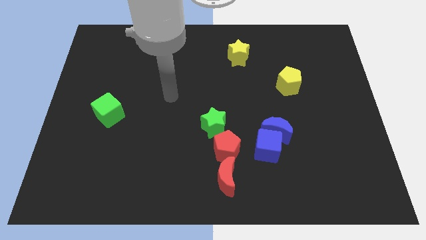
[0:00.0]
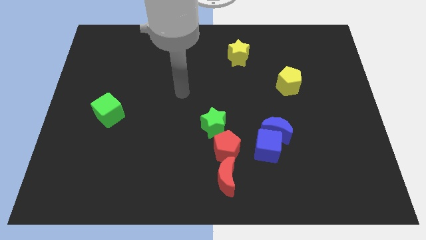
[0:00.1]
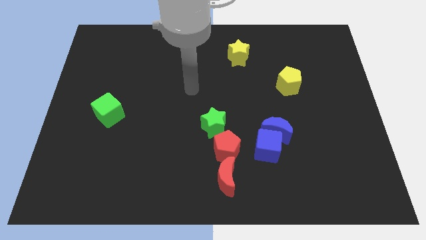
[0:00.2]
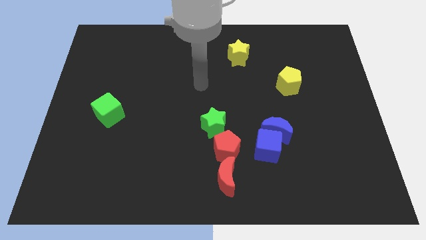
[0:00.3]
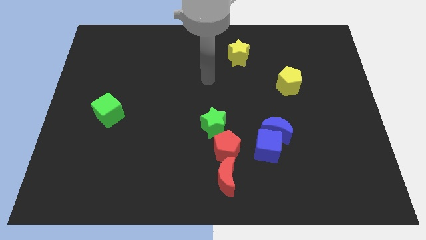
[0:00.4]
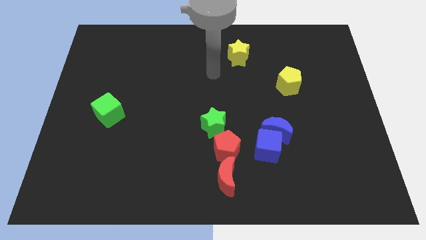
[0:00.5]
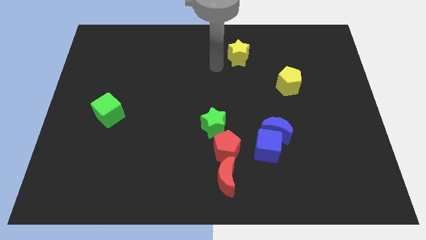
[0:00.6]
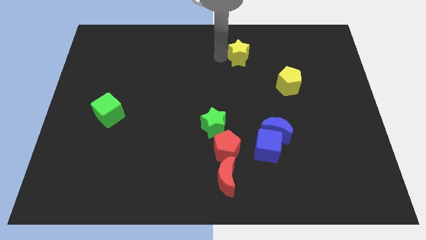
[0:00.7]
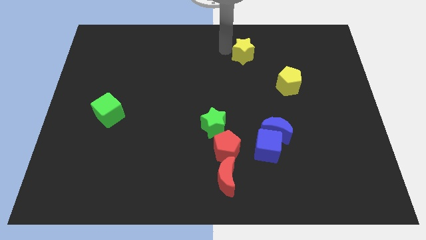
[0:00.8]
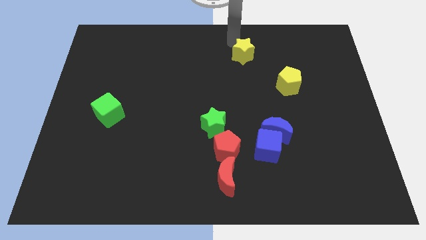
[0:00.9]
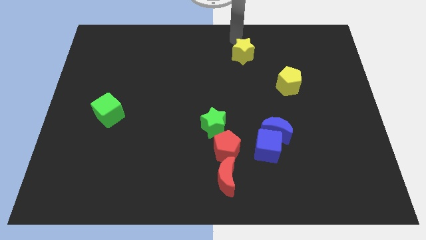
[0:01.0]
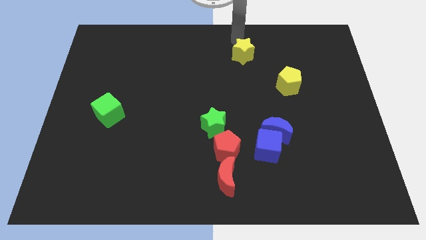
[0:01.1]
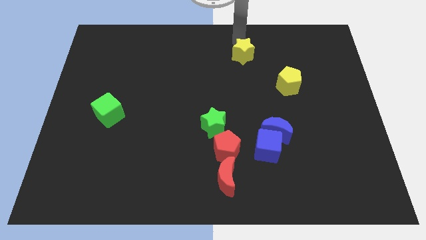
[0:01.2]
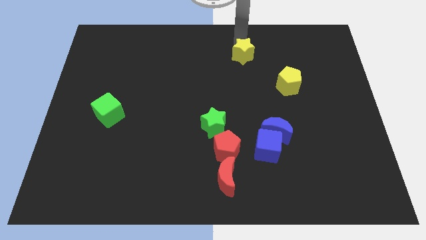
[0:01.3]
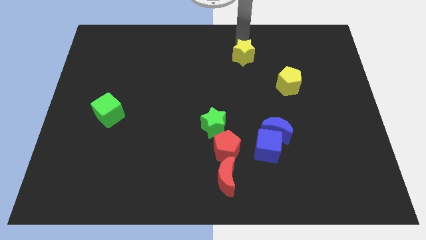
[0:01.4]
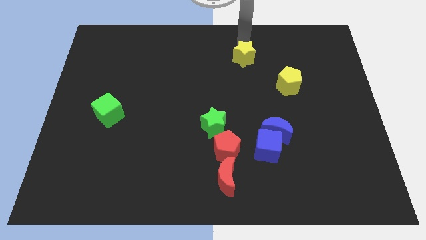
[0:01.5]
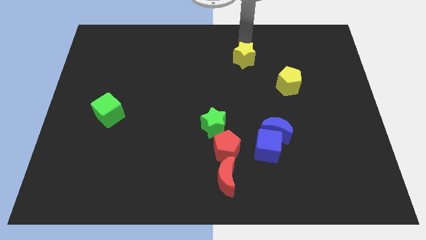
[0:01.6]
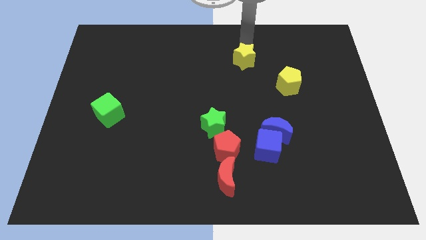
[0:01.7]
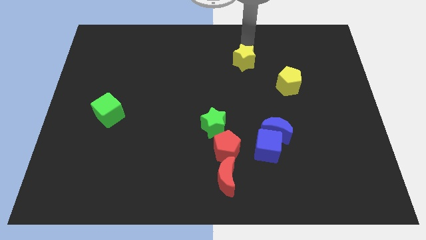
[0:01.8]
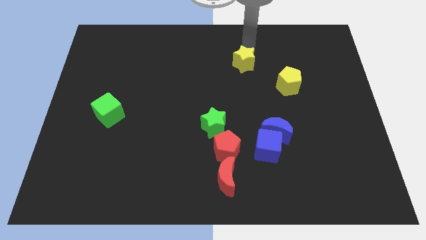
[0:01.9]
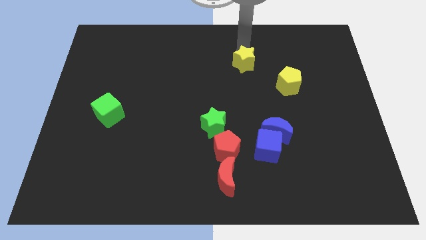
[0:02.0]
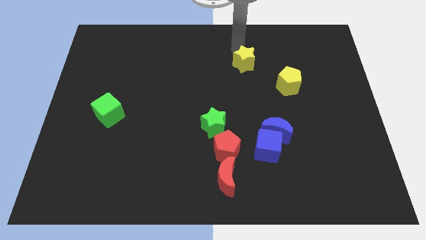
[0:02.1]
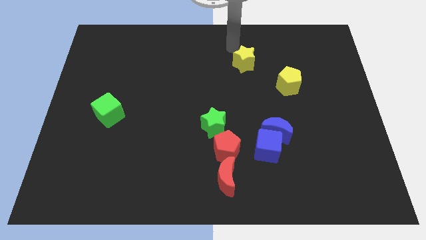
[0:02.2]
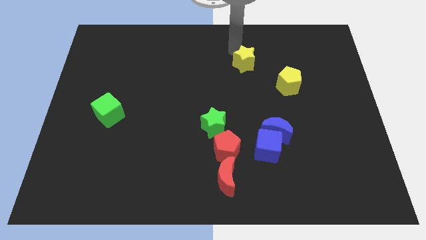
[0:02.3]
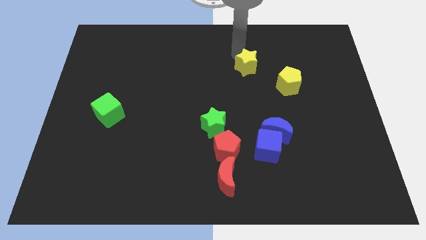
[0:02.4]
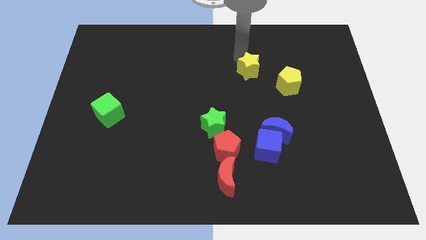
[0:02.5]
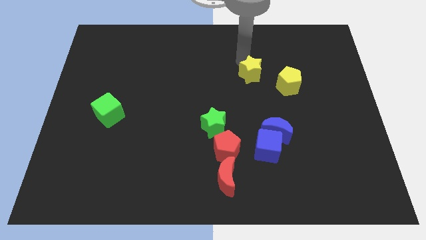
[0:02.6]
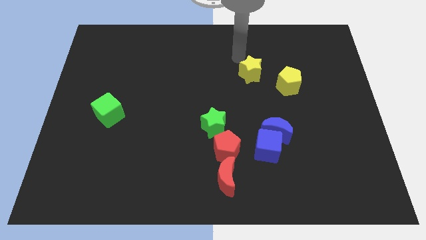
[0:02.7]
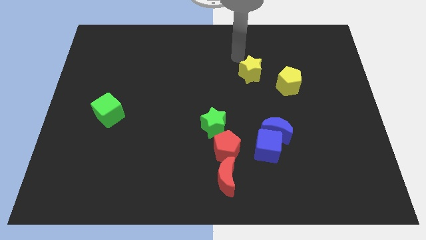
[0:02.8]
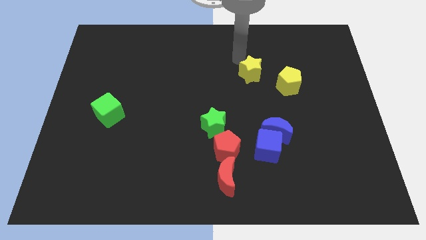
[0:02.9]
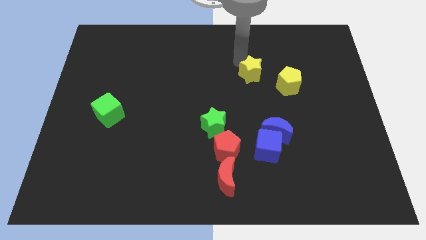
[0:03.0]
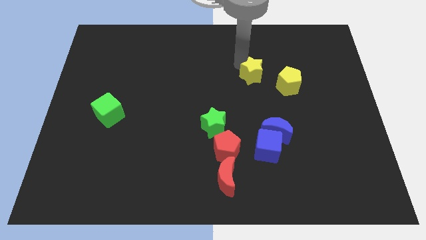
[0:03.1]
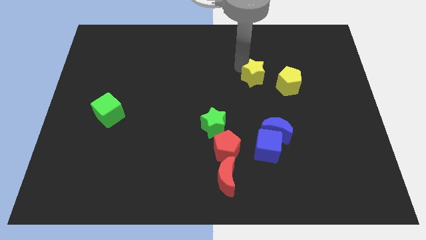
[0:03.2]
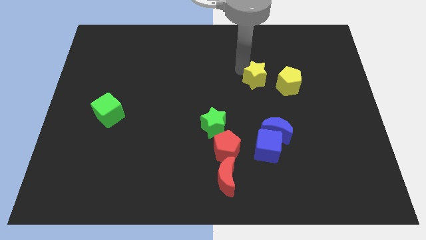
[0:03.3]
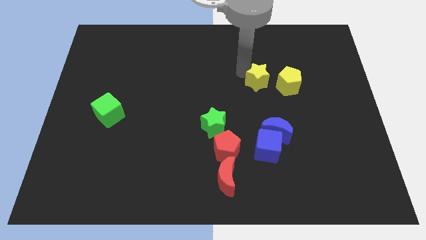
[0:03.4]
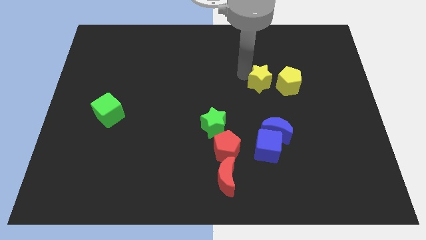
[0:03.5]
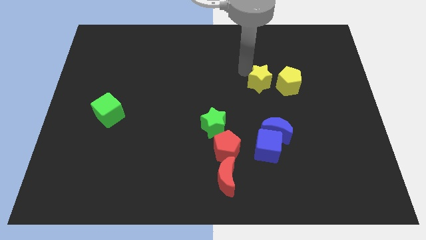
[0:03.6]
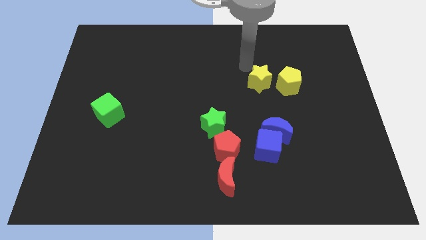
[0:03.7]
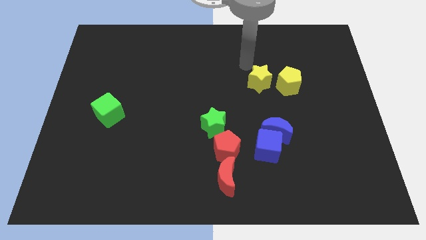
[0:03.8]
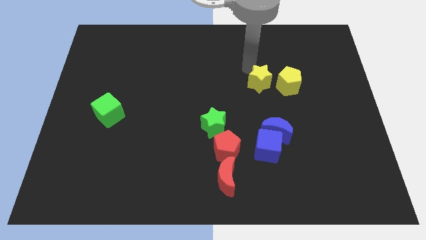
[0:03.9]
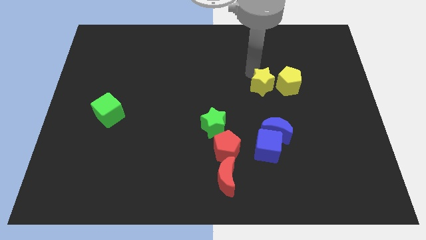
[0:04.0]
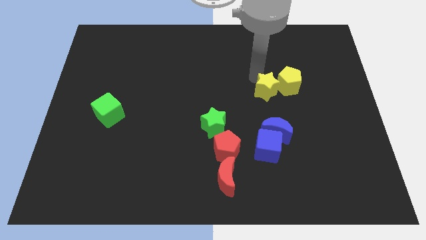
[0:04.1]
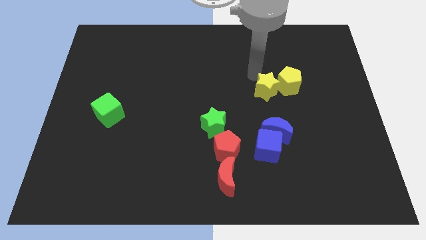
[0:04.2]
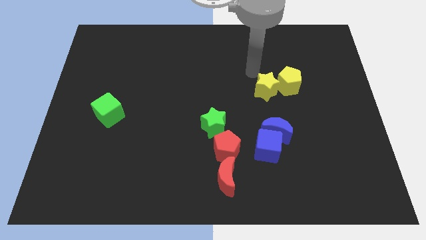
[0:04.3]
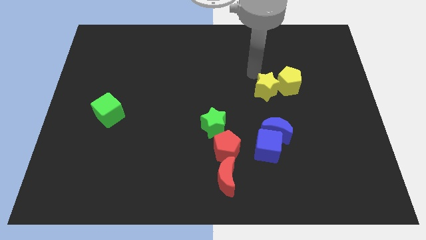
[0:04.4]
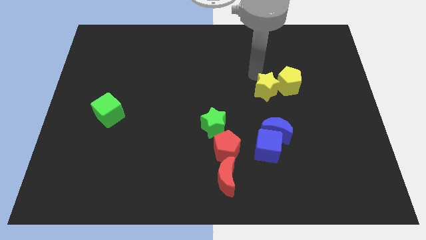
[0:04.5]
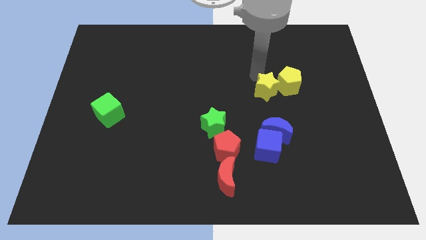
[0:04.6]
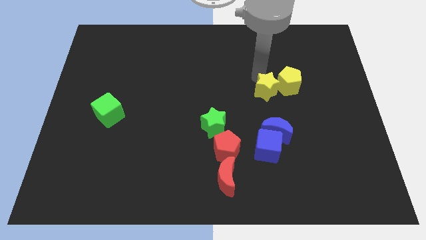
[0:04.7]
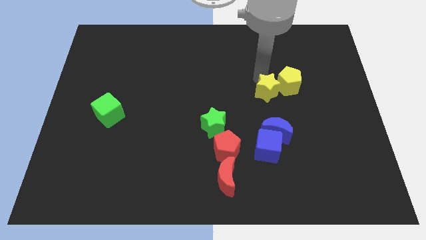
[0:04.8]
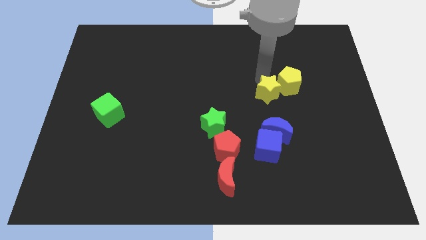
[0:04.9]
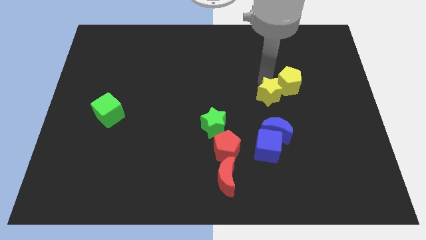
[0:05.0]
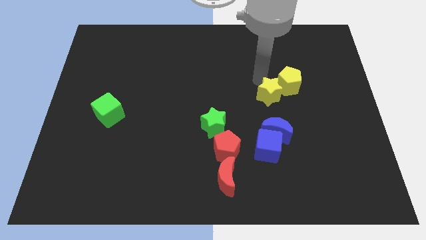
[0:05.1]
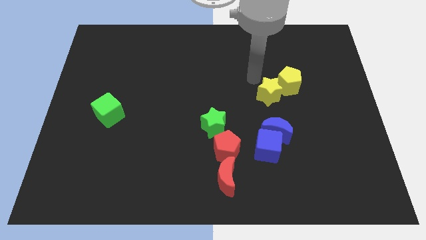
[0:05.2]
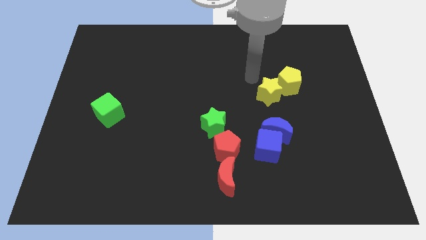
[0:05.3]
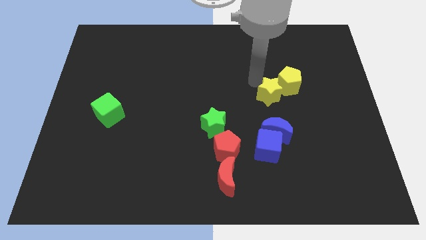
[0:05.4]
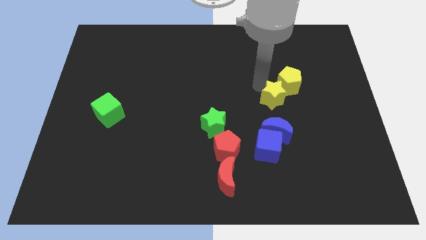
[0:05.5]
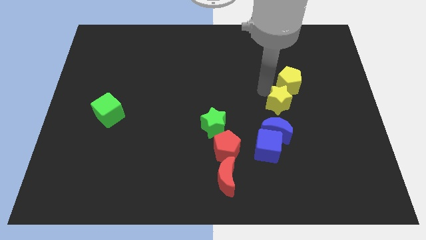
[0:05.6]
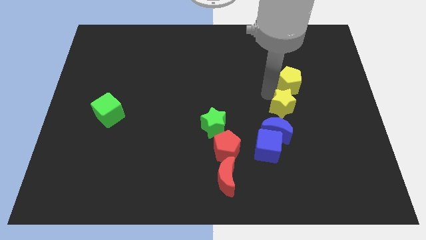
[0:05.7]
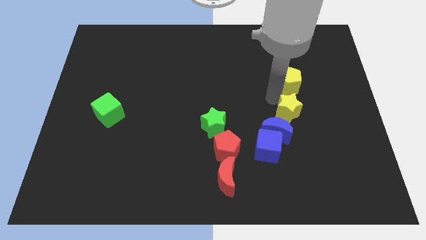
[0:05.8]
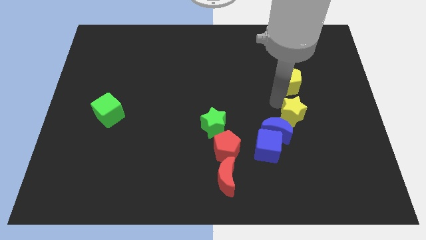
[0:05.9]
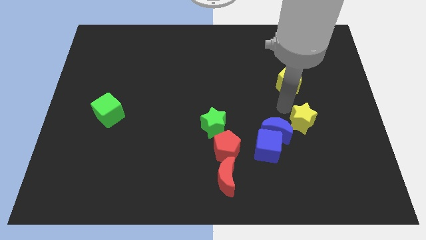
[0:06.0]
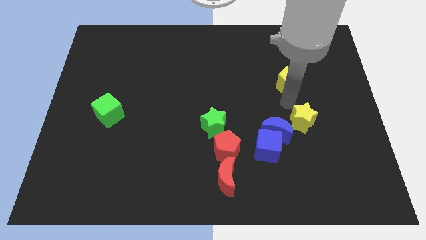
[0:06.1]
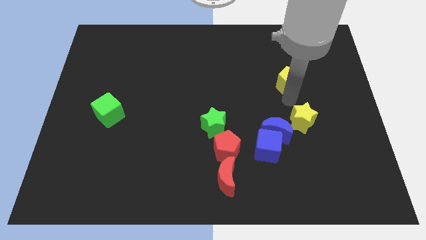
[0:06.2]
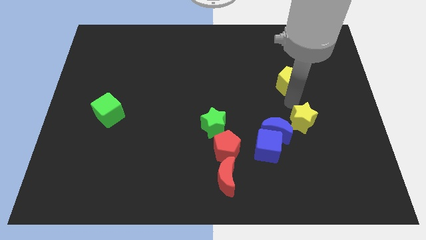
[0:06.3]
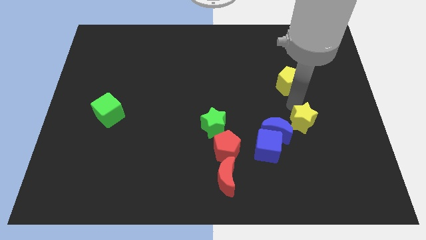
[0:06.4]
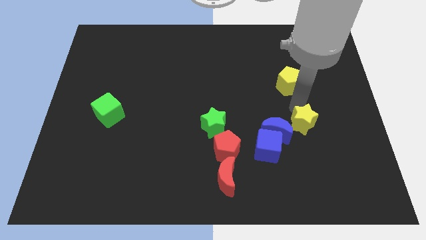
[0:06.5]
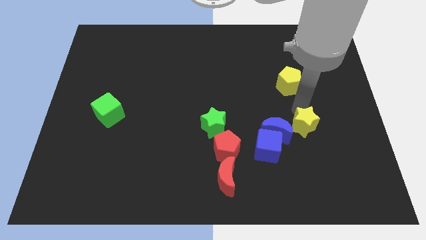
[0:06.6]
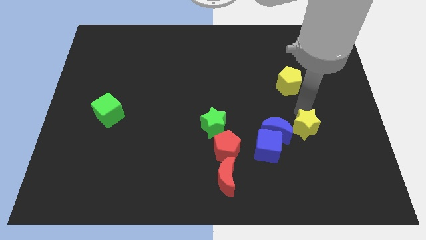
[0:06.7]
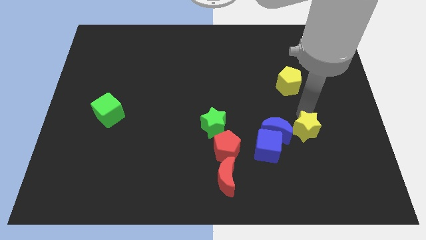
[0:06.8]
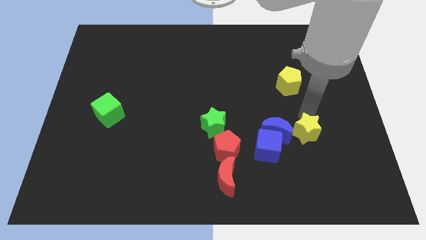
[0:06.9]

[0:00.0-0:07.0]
push the yellow star just right of the blue cube

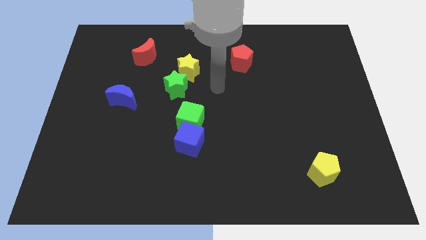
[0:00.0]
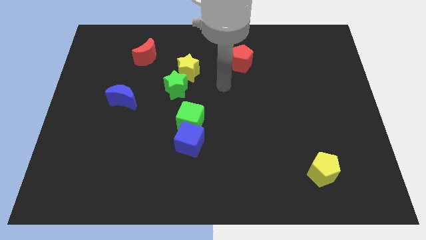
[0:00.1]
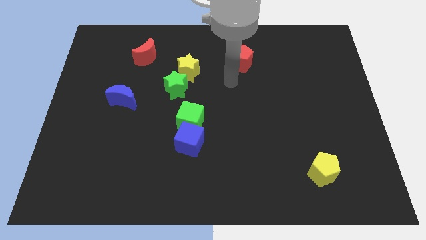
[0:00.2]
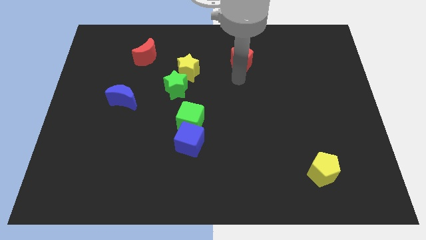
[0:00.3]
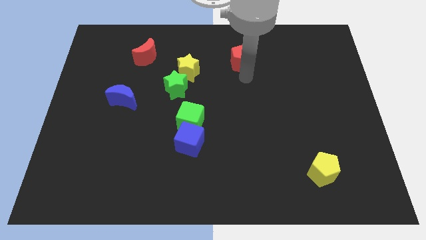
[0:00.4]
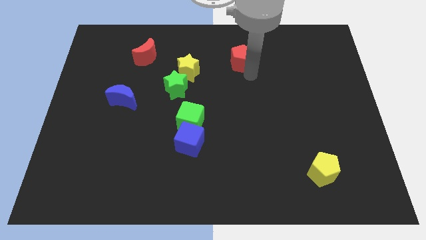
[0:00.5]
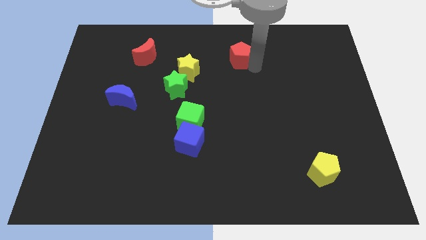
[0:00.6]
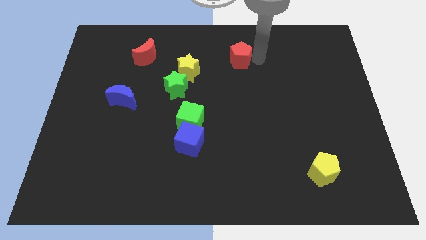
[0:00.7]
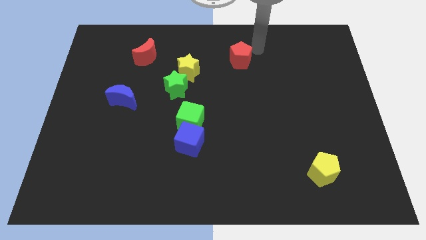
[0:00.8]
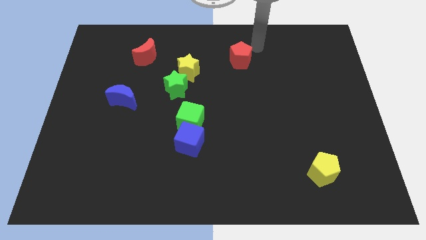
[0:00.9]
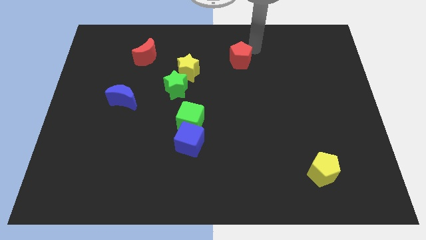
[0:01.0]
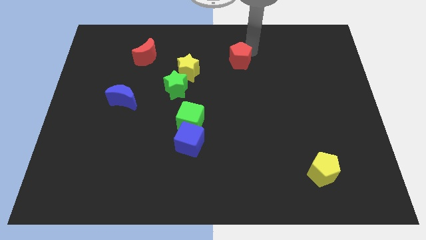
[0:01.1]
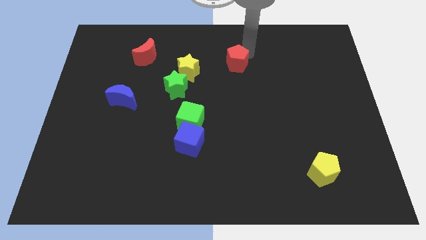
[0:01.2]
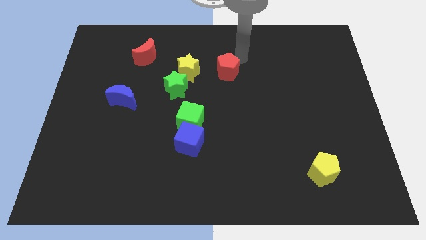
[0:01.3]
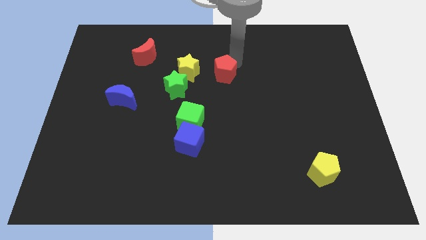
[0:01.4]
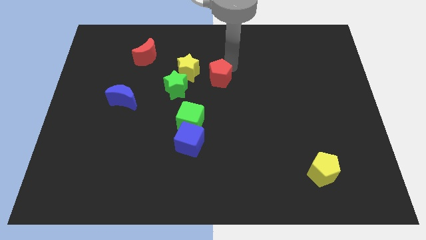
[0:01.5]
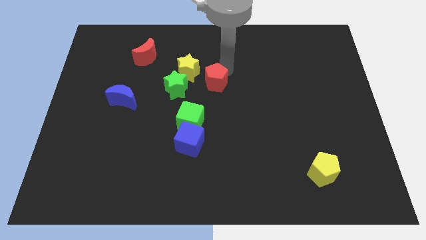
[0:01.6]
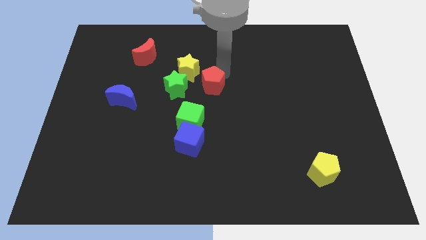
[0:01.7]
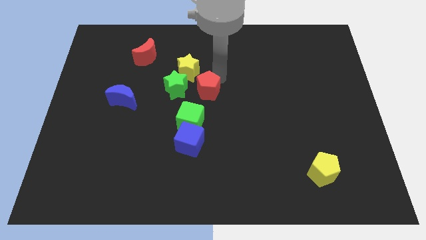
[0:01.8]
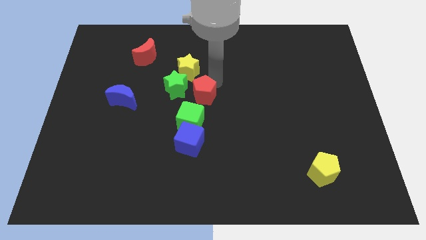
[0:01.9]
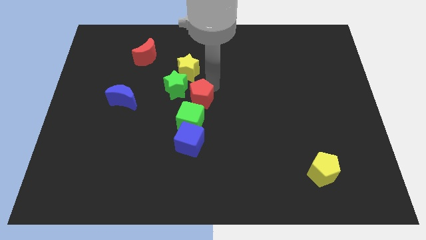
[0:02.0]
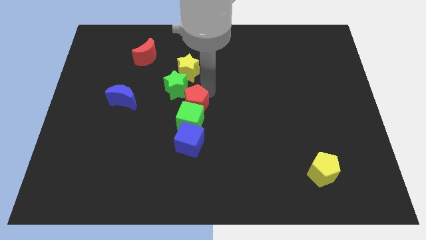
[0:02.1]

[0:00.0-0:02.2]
push the red pentagon below the green star
